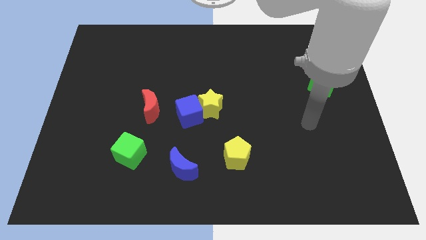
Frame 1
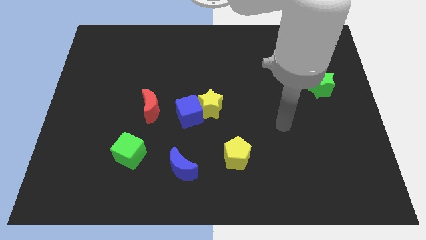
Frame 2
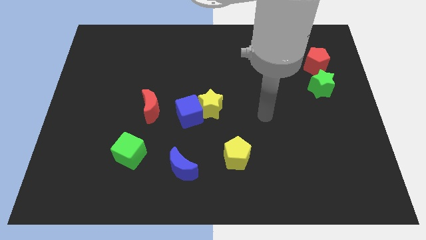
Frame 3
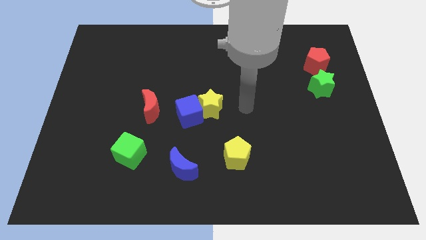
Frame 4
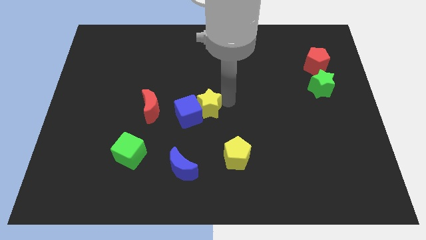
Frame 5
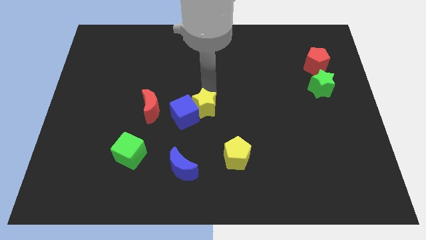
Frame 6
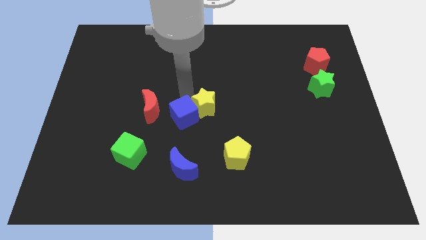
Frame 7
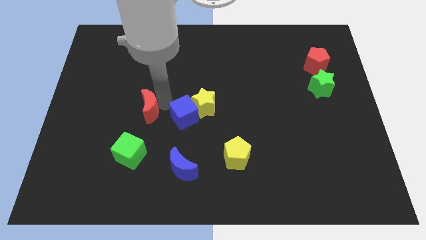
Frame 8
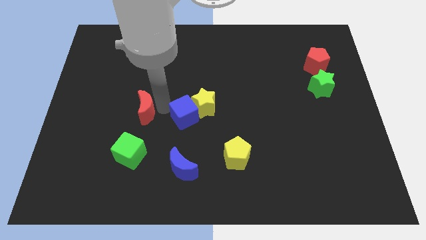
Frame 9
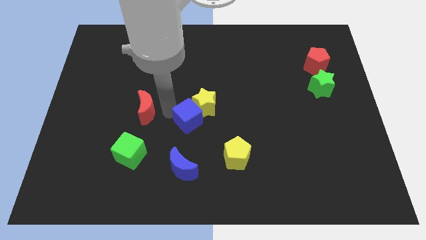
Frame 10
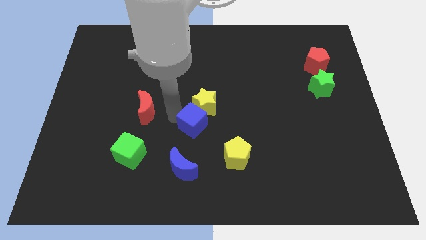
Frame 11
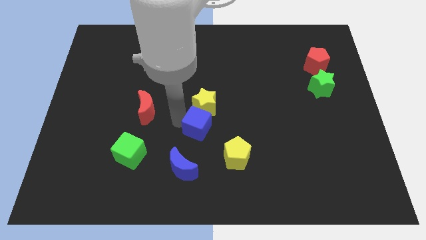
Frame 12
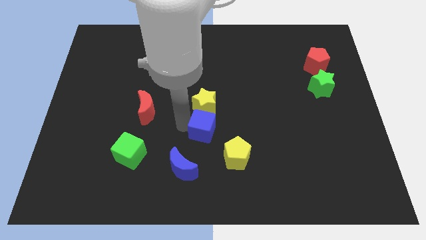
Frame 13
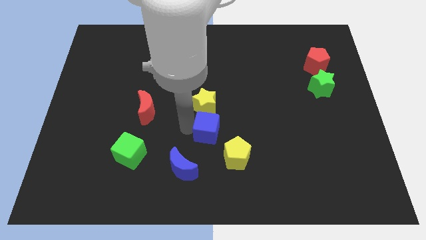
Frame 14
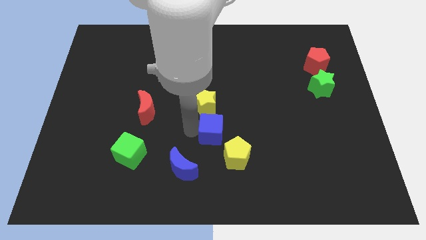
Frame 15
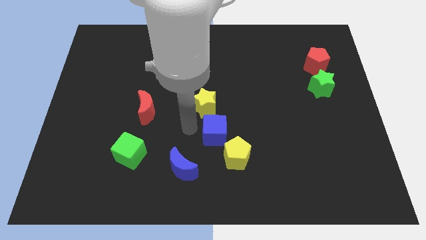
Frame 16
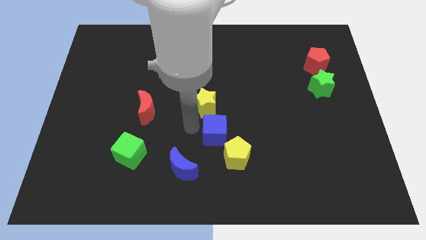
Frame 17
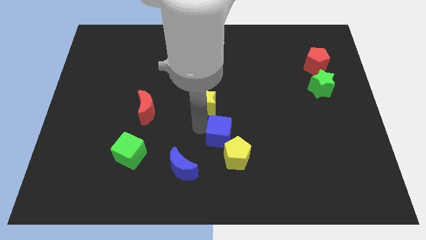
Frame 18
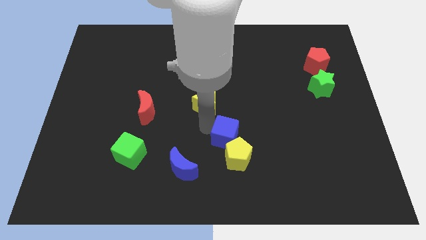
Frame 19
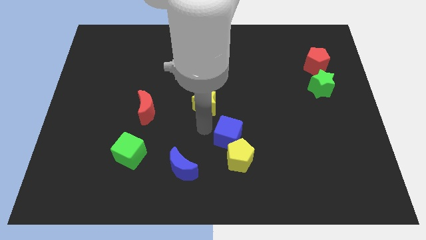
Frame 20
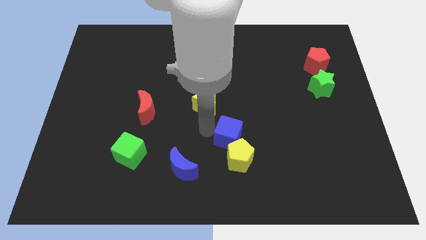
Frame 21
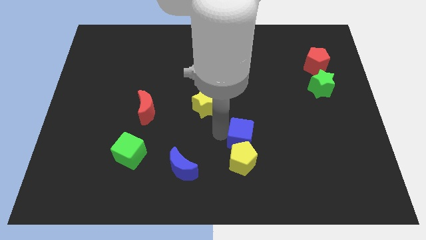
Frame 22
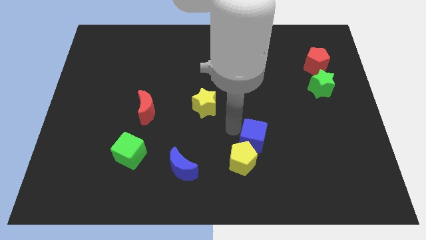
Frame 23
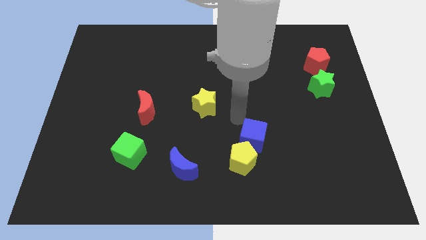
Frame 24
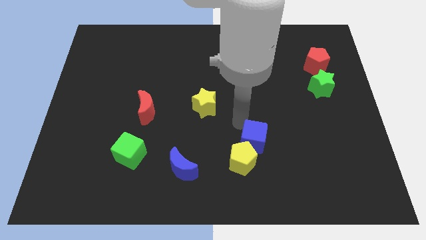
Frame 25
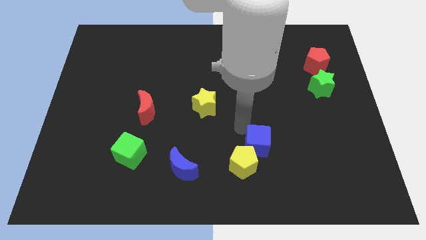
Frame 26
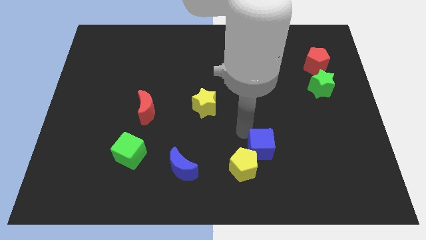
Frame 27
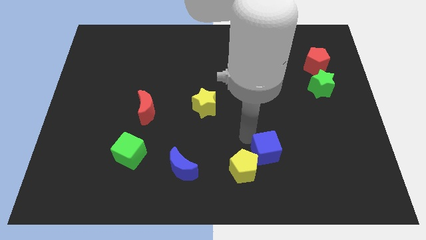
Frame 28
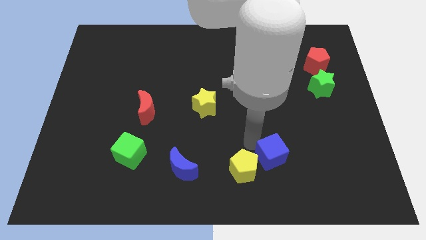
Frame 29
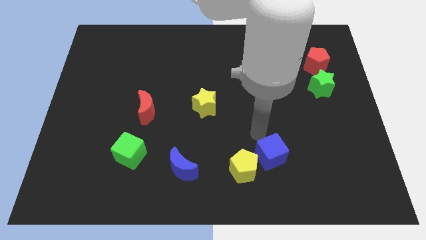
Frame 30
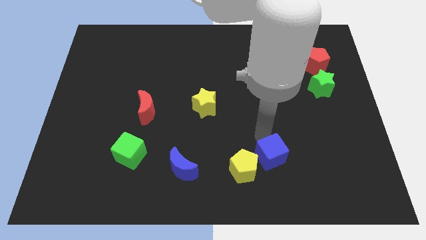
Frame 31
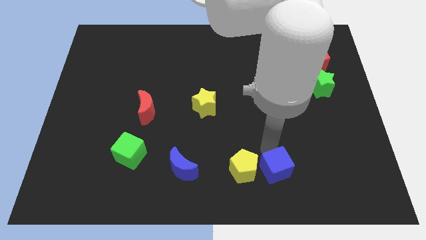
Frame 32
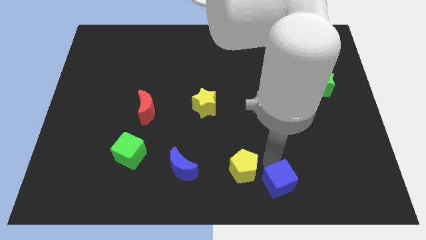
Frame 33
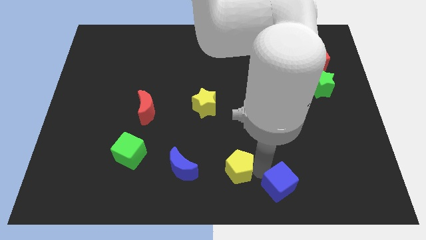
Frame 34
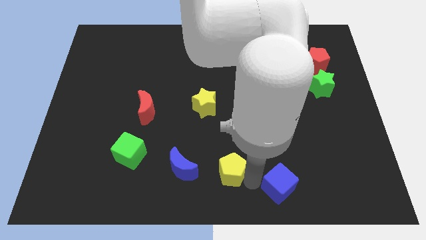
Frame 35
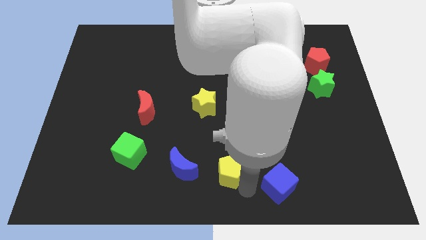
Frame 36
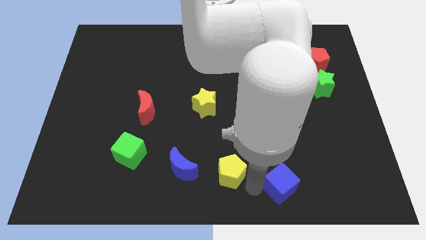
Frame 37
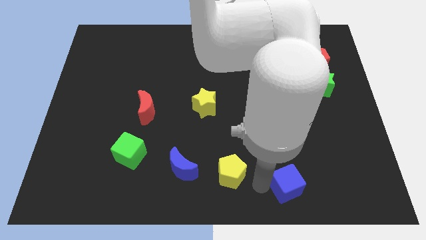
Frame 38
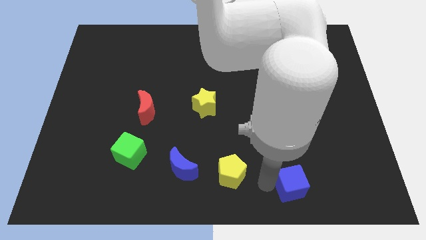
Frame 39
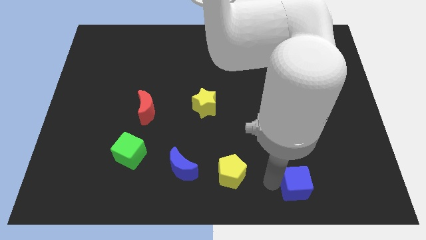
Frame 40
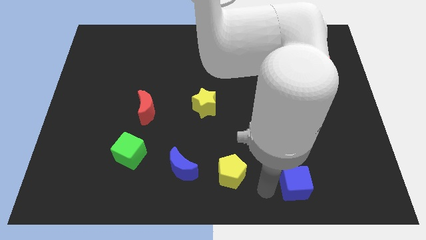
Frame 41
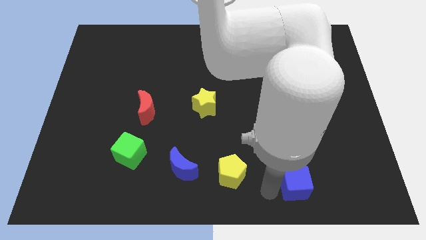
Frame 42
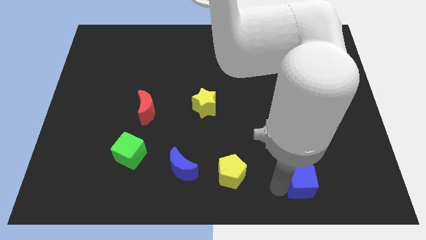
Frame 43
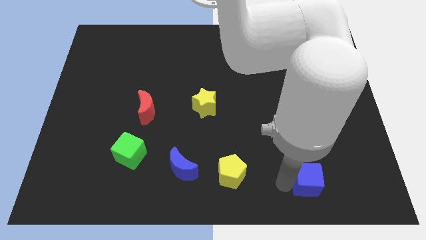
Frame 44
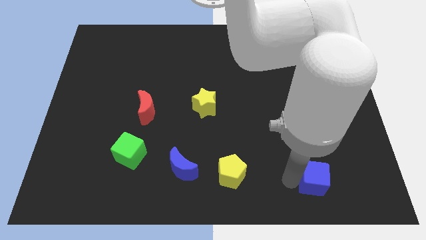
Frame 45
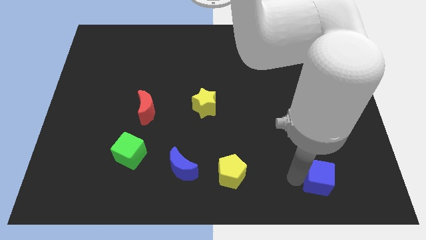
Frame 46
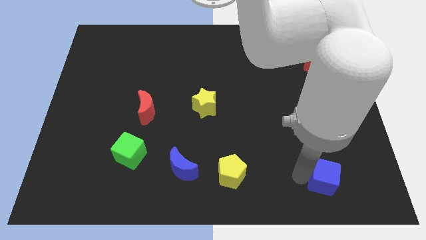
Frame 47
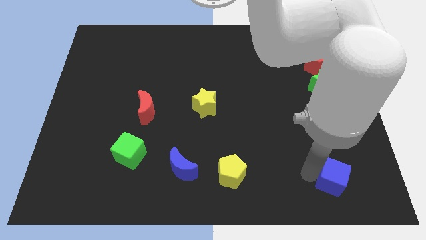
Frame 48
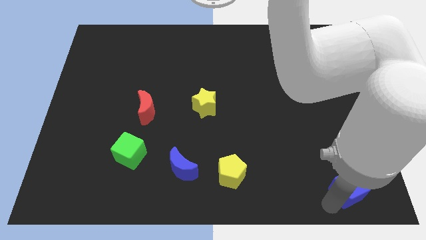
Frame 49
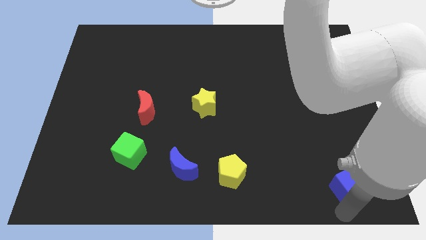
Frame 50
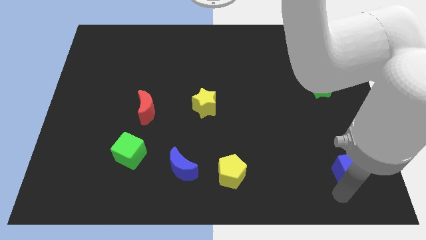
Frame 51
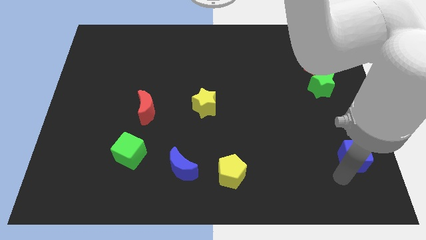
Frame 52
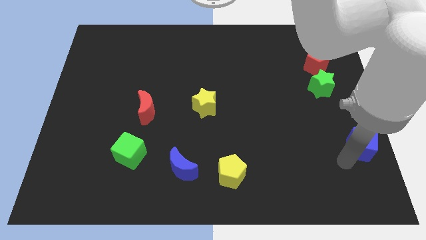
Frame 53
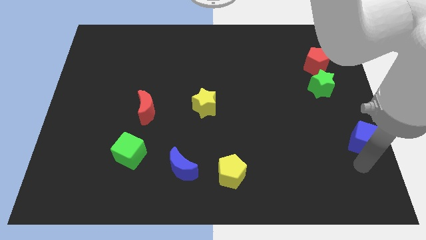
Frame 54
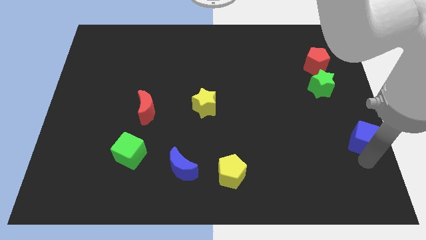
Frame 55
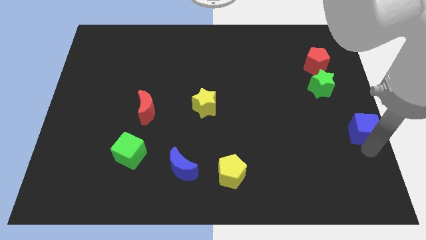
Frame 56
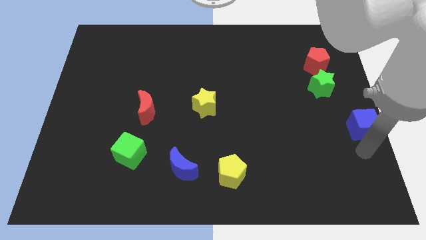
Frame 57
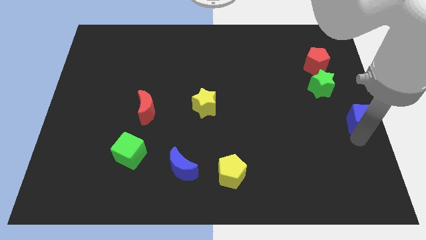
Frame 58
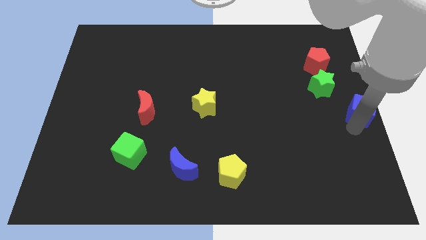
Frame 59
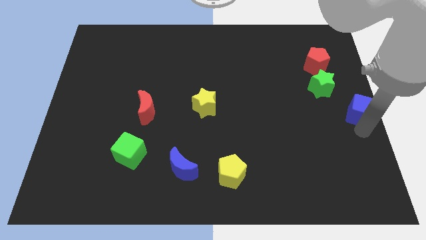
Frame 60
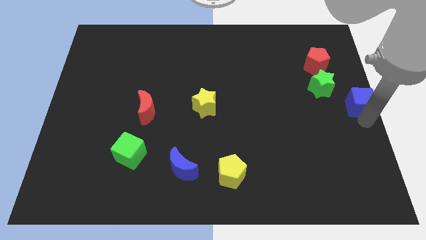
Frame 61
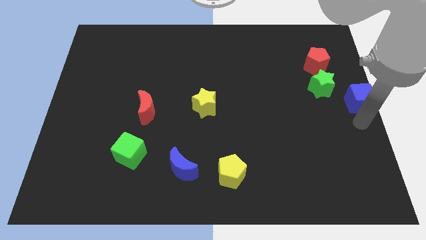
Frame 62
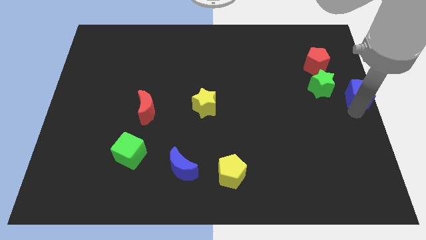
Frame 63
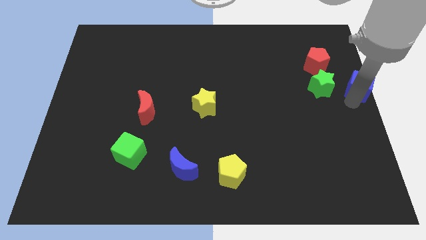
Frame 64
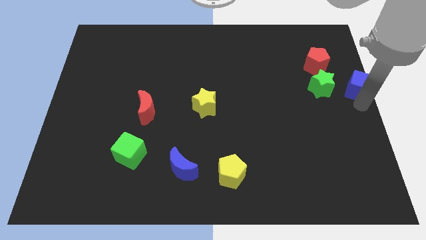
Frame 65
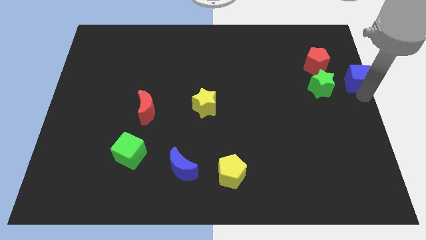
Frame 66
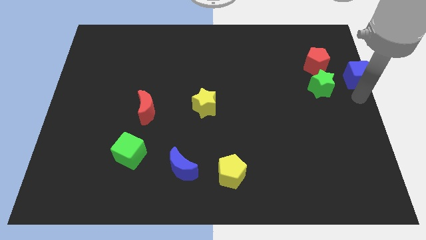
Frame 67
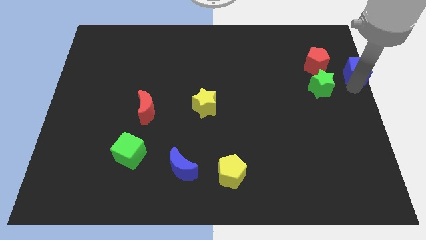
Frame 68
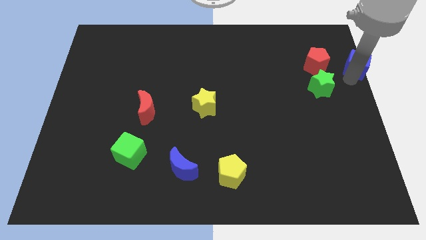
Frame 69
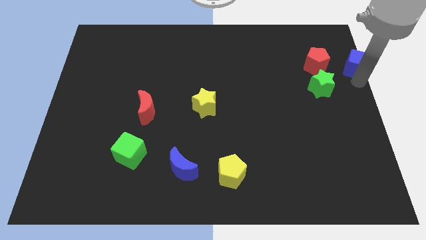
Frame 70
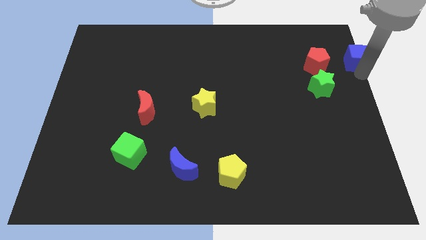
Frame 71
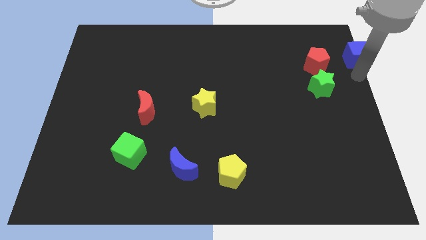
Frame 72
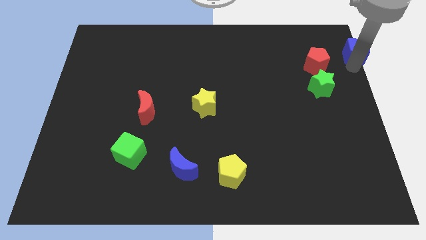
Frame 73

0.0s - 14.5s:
move the blue cube to the top right corner
